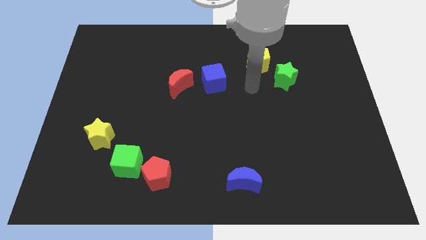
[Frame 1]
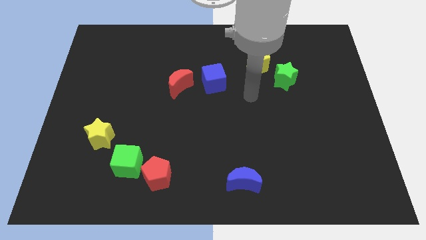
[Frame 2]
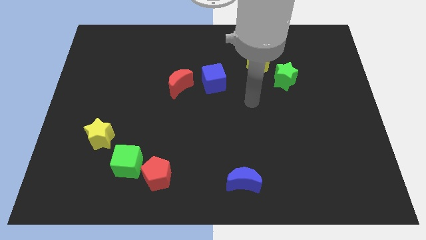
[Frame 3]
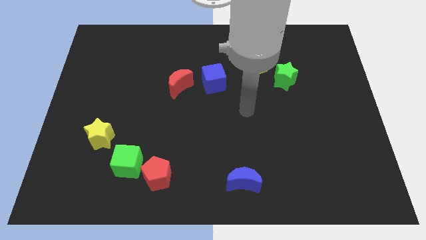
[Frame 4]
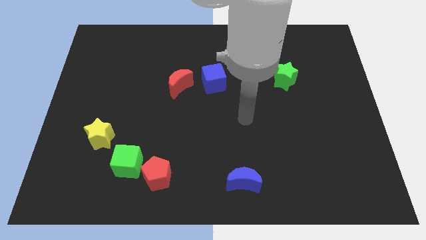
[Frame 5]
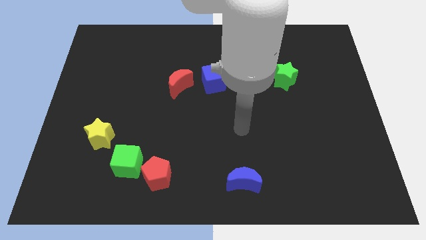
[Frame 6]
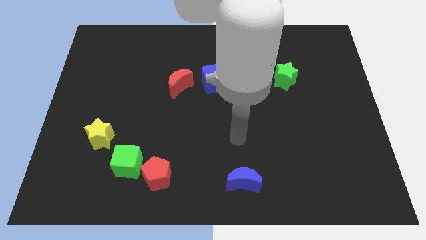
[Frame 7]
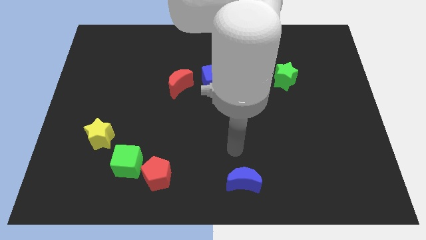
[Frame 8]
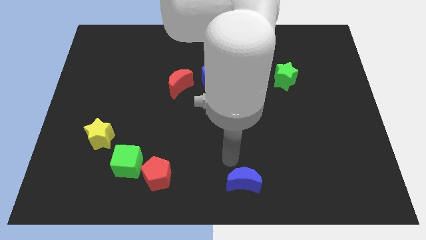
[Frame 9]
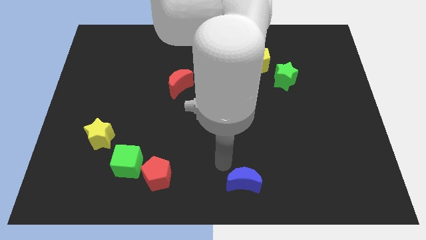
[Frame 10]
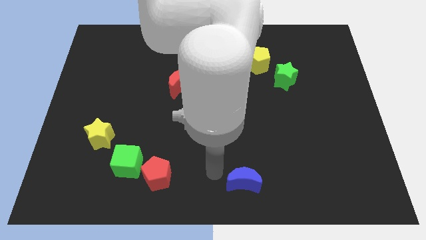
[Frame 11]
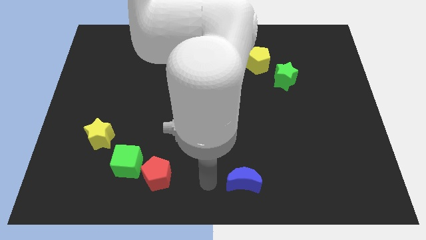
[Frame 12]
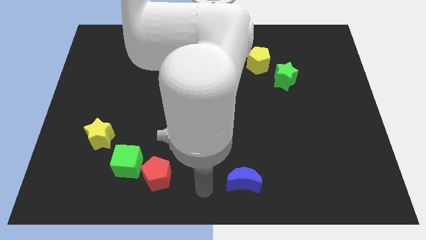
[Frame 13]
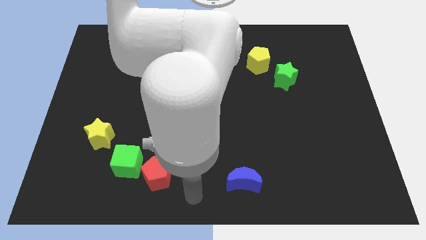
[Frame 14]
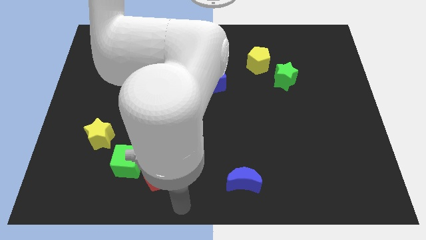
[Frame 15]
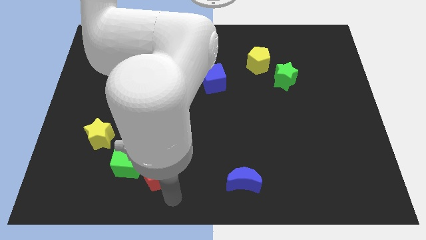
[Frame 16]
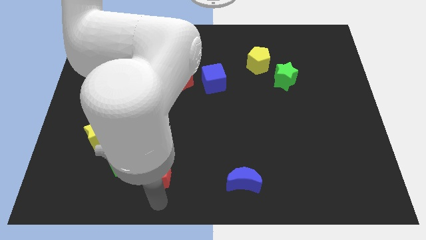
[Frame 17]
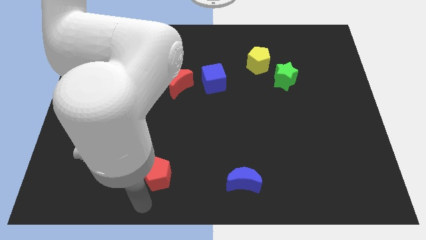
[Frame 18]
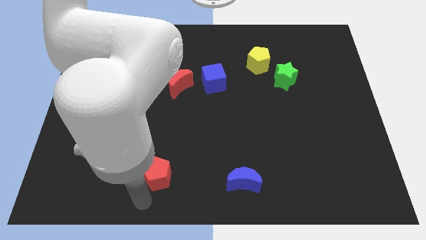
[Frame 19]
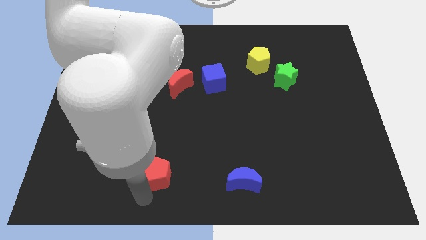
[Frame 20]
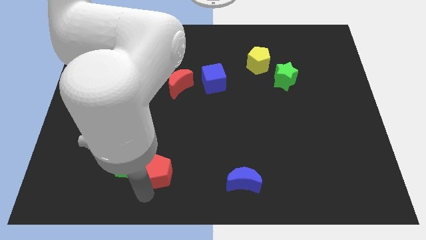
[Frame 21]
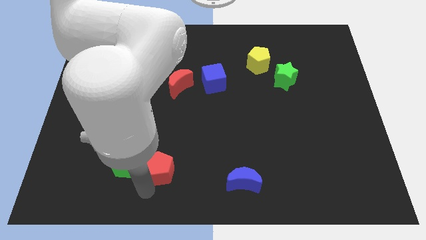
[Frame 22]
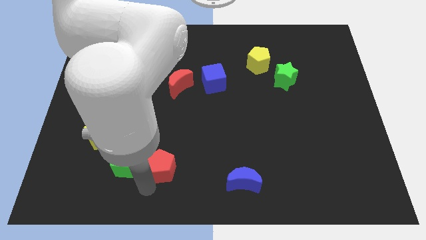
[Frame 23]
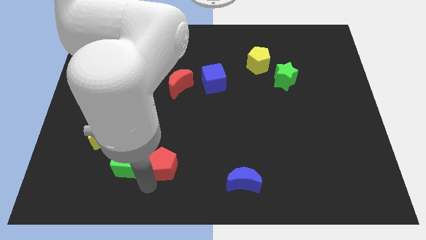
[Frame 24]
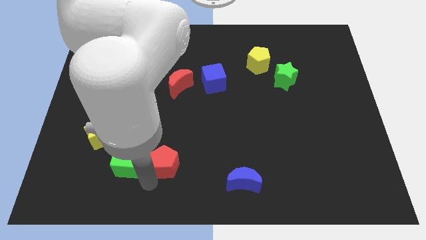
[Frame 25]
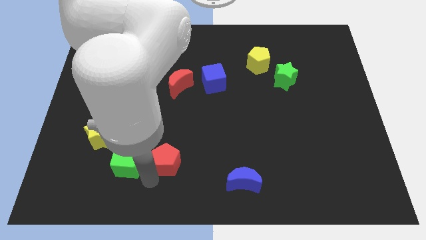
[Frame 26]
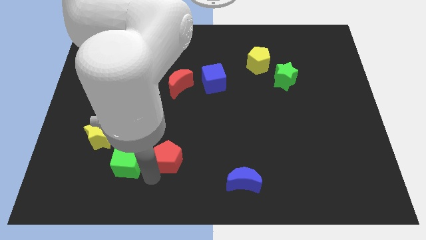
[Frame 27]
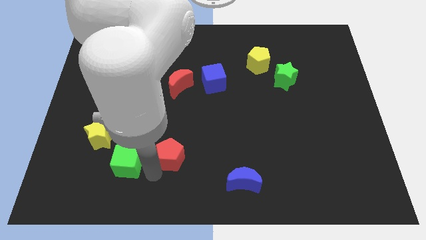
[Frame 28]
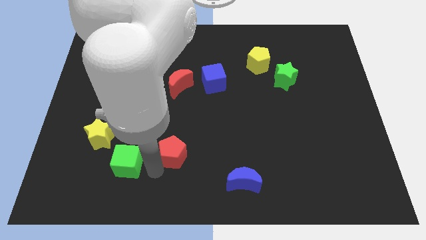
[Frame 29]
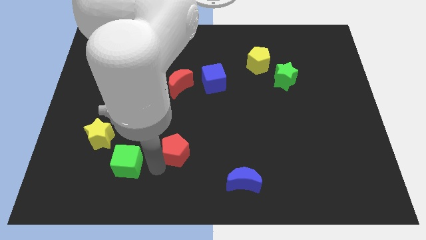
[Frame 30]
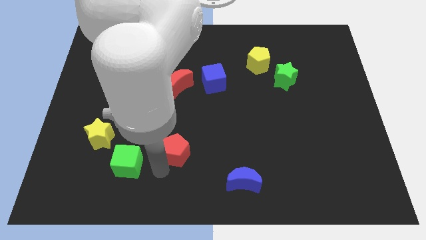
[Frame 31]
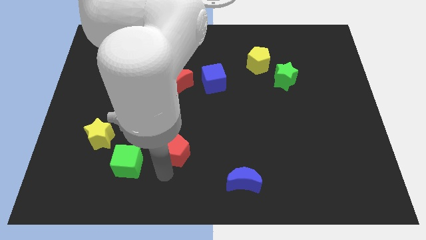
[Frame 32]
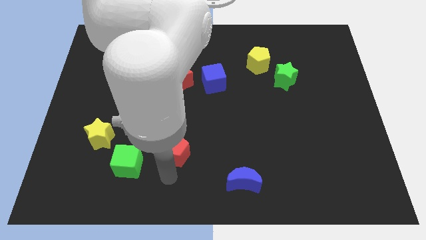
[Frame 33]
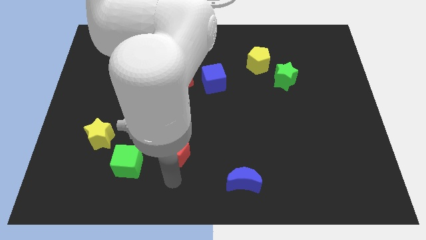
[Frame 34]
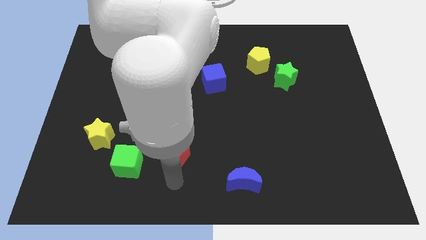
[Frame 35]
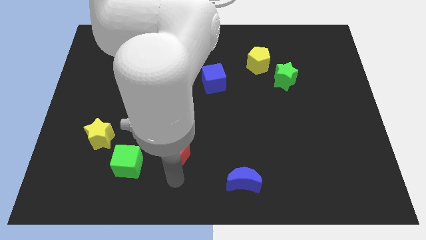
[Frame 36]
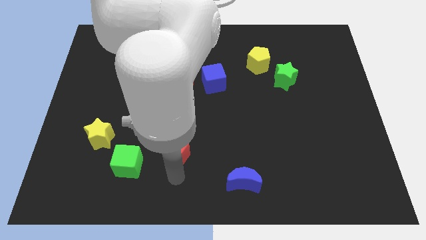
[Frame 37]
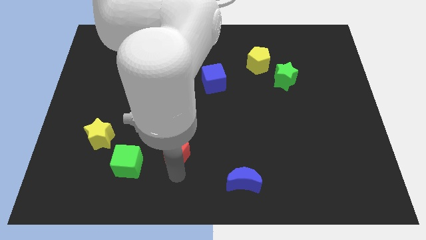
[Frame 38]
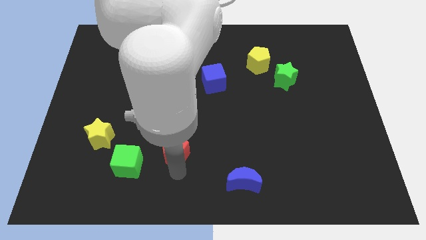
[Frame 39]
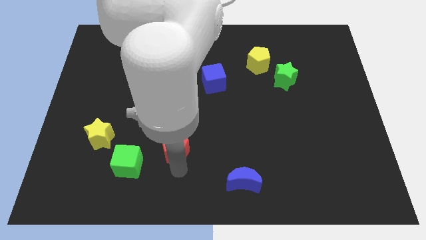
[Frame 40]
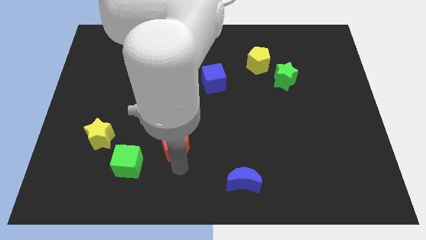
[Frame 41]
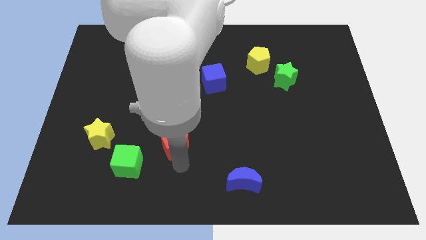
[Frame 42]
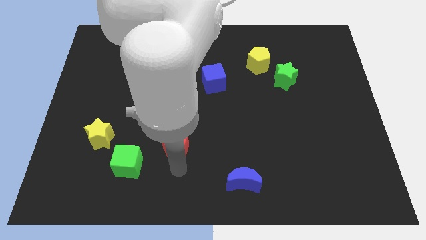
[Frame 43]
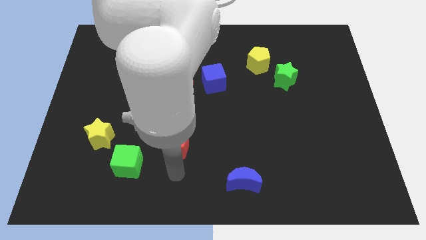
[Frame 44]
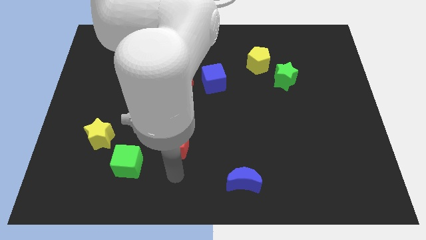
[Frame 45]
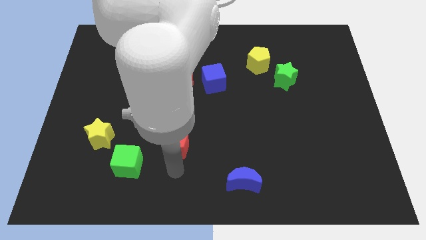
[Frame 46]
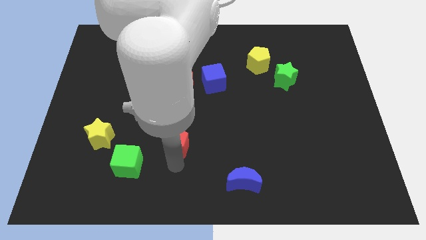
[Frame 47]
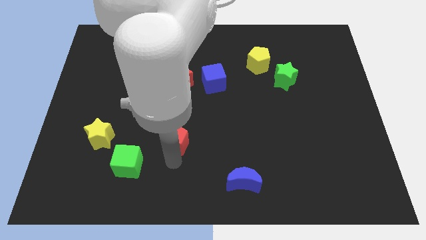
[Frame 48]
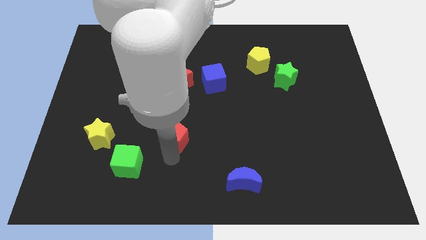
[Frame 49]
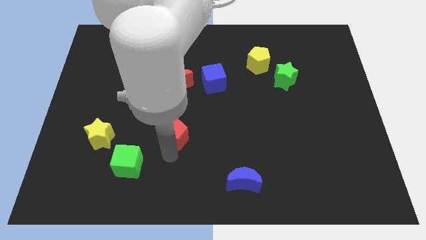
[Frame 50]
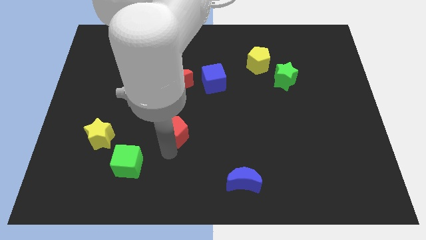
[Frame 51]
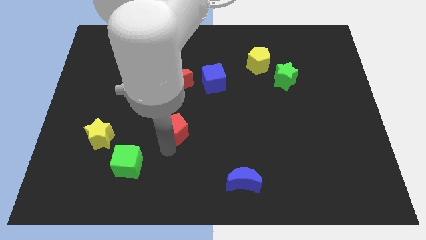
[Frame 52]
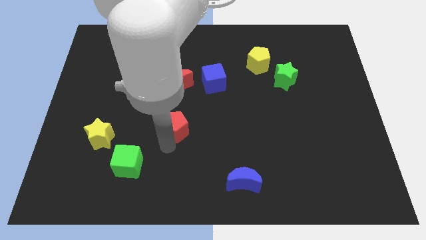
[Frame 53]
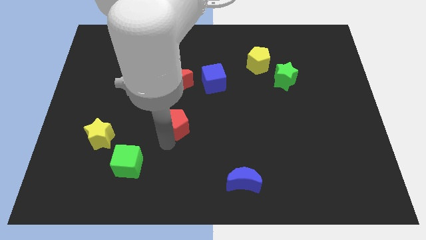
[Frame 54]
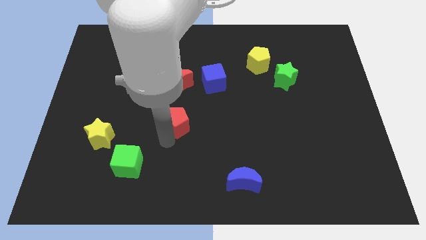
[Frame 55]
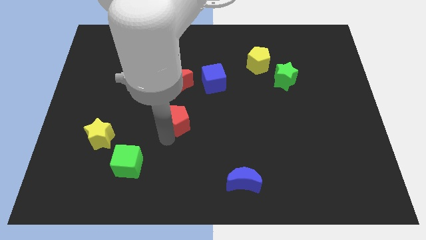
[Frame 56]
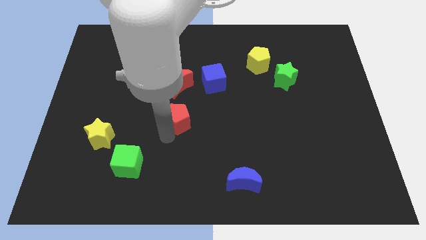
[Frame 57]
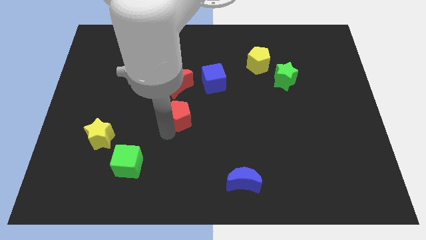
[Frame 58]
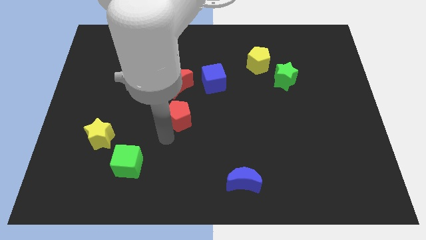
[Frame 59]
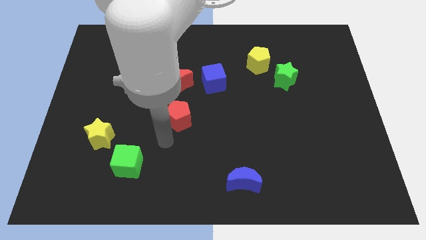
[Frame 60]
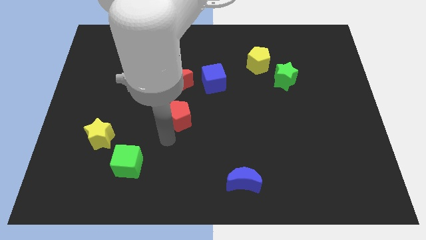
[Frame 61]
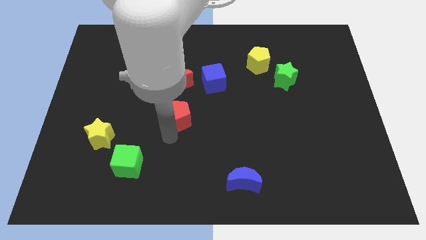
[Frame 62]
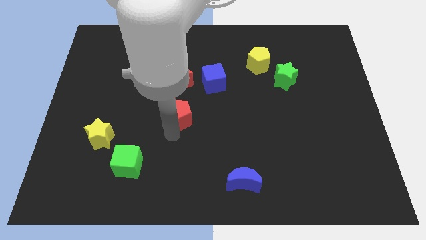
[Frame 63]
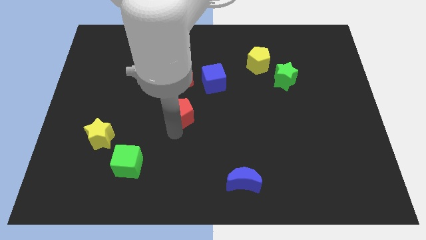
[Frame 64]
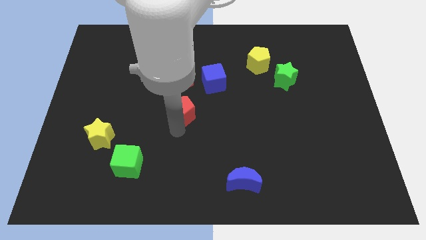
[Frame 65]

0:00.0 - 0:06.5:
move the red pentagon to the bottom left side of the blue cube

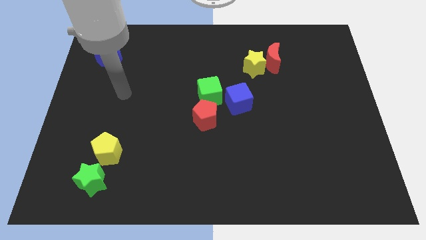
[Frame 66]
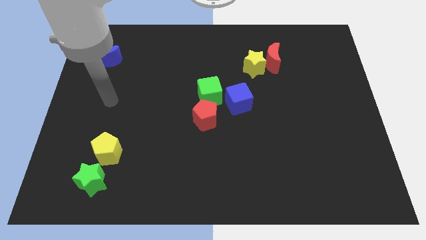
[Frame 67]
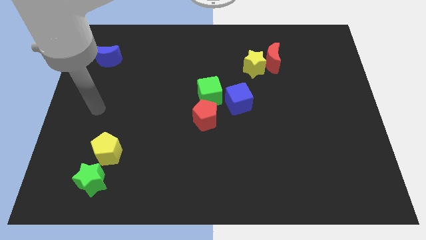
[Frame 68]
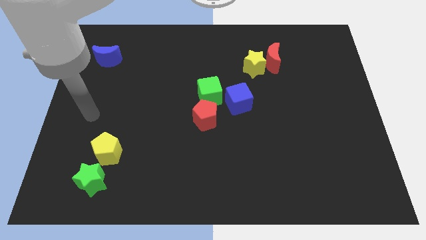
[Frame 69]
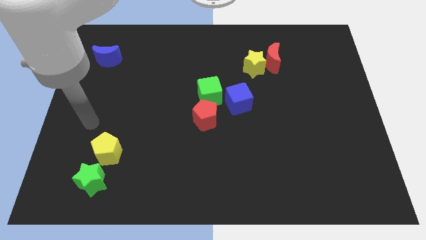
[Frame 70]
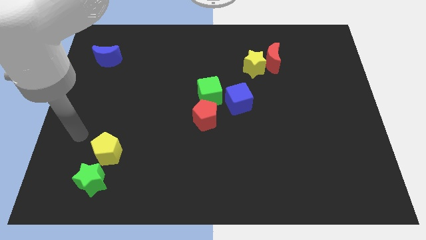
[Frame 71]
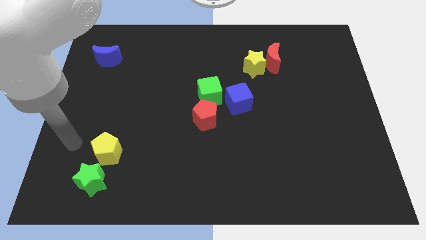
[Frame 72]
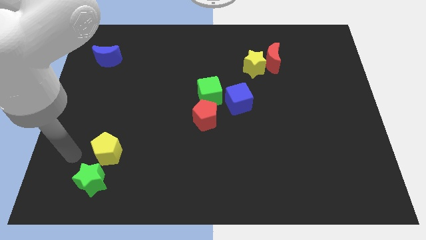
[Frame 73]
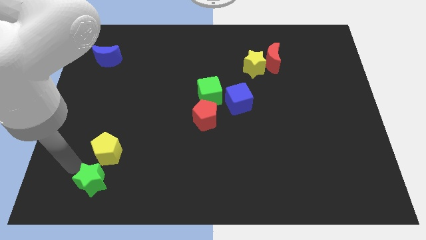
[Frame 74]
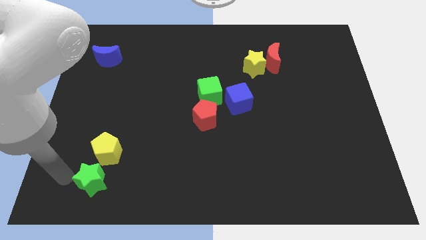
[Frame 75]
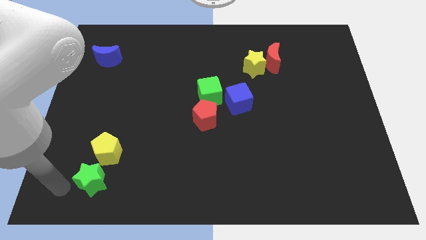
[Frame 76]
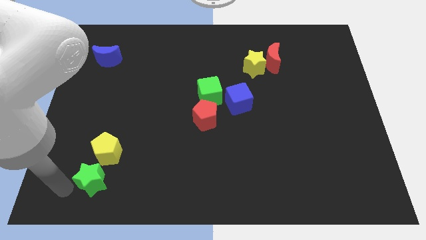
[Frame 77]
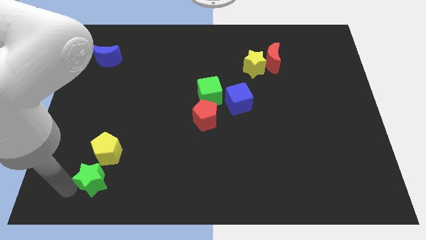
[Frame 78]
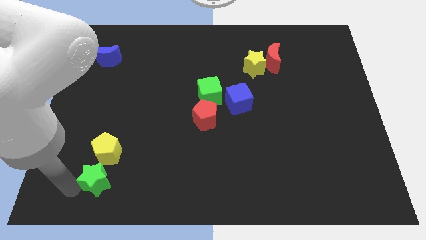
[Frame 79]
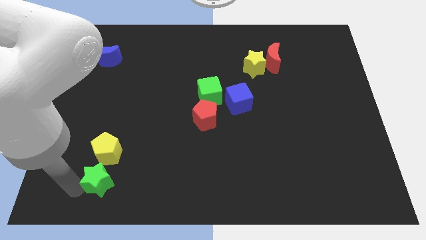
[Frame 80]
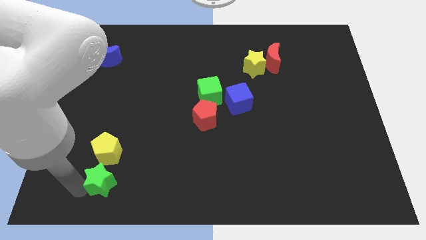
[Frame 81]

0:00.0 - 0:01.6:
move the green star diagonally down and to the right of the yellow pentagon
